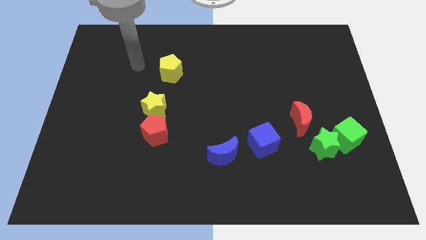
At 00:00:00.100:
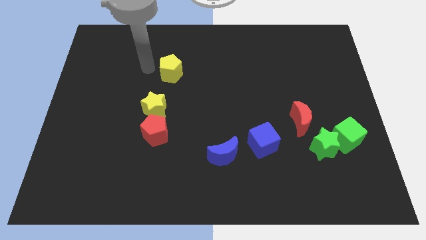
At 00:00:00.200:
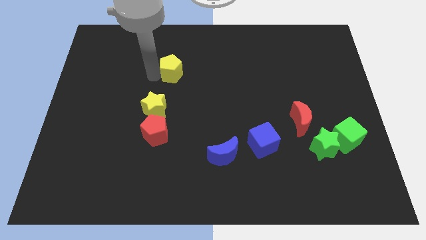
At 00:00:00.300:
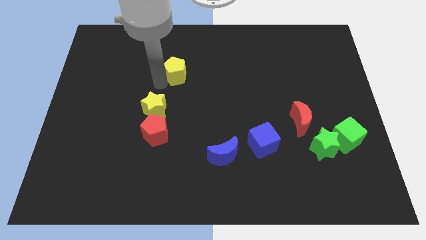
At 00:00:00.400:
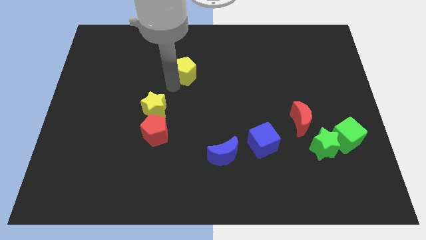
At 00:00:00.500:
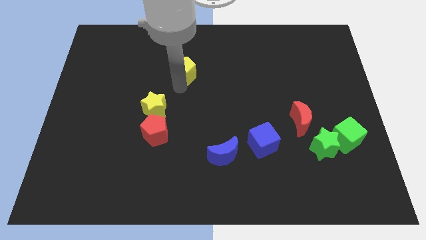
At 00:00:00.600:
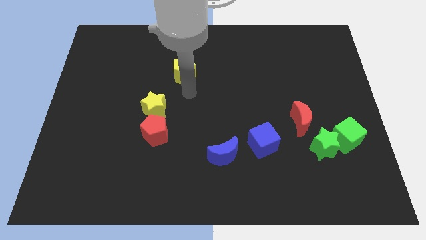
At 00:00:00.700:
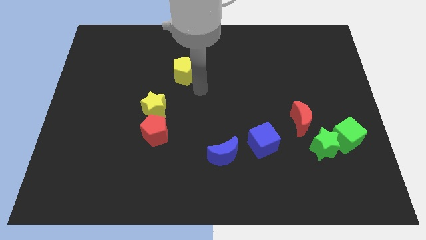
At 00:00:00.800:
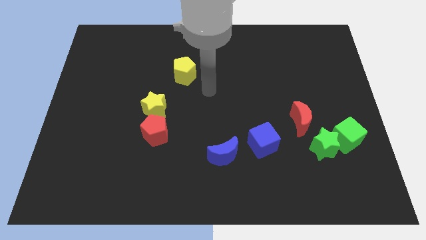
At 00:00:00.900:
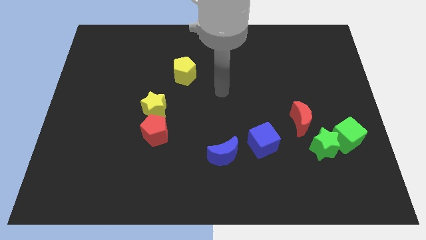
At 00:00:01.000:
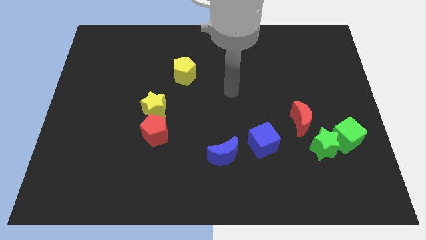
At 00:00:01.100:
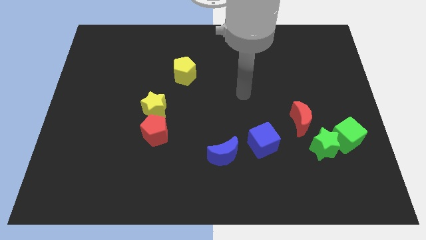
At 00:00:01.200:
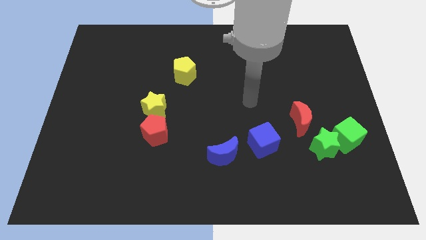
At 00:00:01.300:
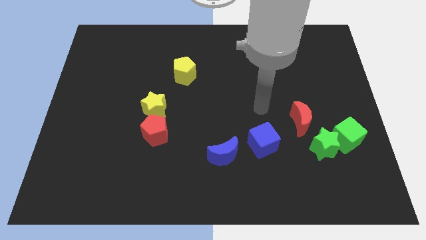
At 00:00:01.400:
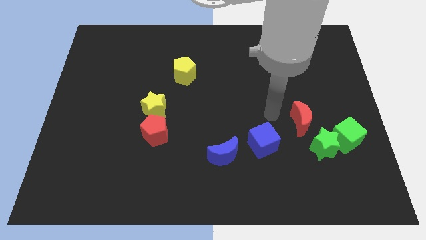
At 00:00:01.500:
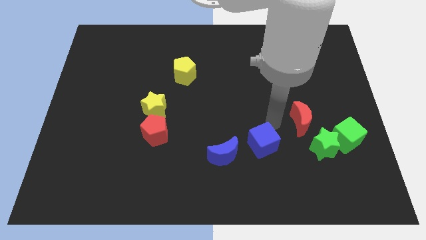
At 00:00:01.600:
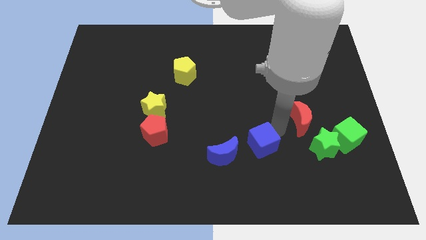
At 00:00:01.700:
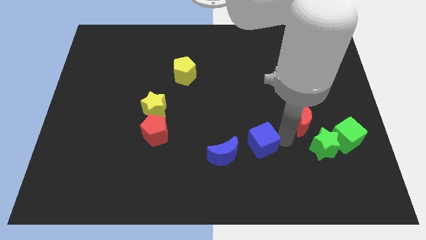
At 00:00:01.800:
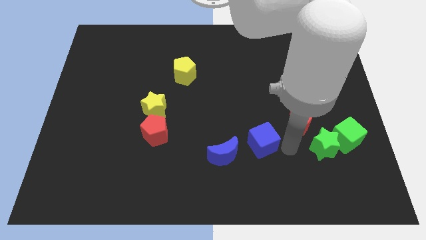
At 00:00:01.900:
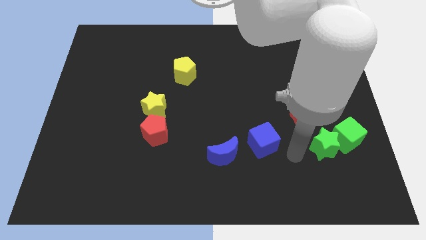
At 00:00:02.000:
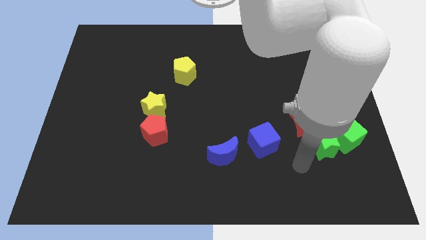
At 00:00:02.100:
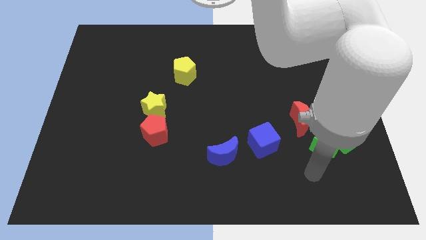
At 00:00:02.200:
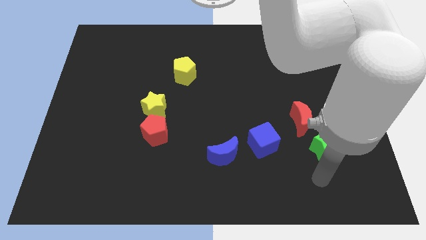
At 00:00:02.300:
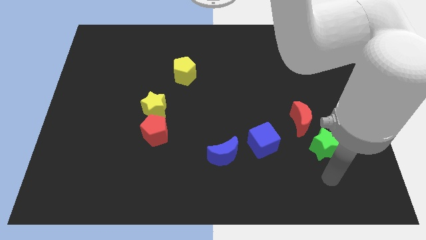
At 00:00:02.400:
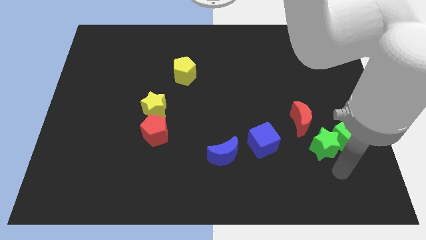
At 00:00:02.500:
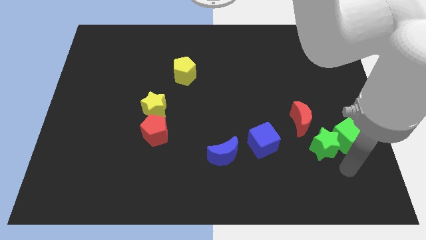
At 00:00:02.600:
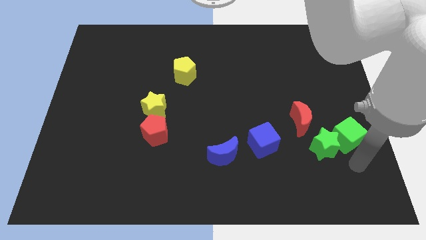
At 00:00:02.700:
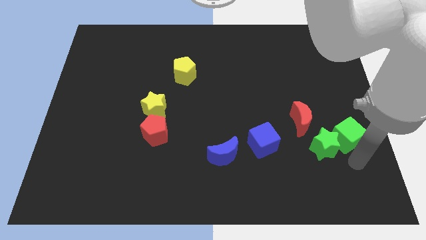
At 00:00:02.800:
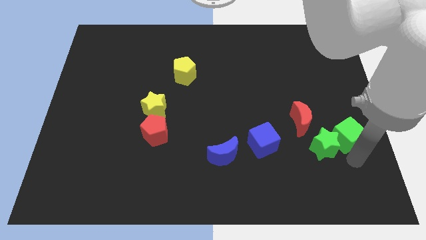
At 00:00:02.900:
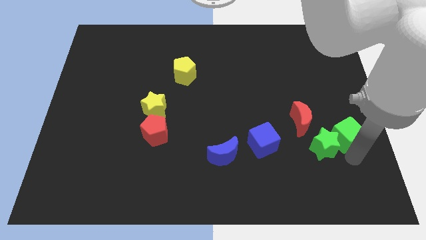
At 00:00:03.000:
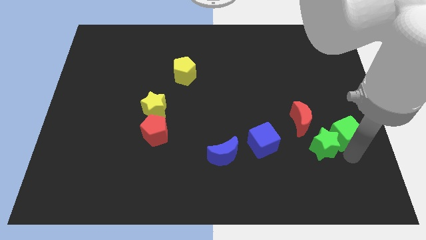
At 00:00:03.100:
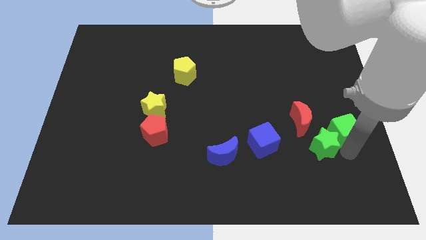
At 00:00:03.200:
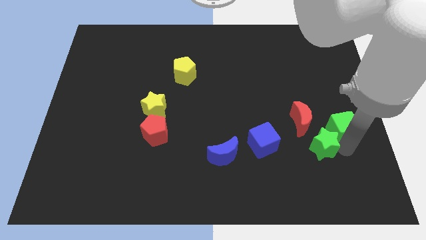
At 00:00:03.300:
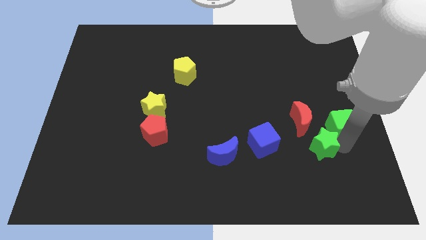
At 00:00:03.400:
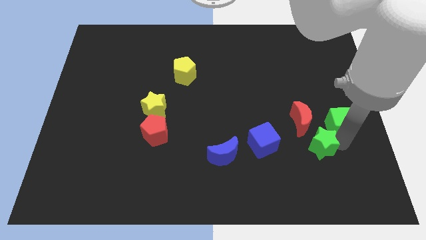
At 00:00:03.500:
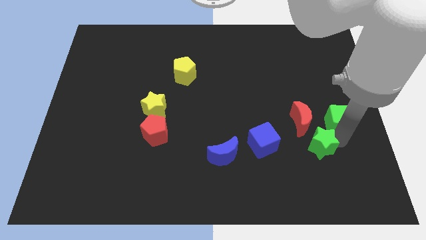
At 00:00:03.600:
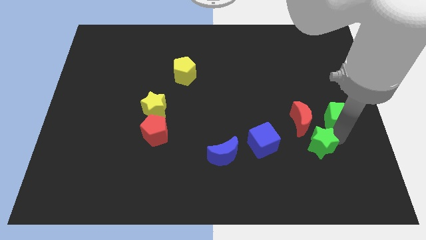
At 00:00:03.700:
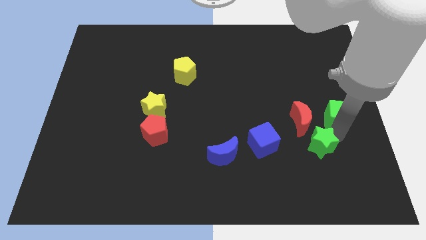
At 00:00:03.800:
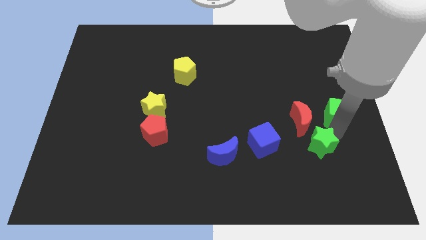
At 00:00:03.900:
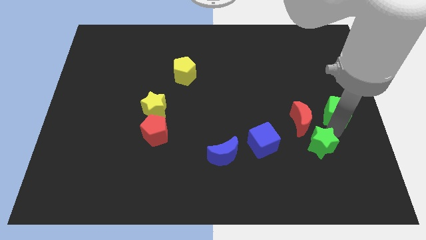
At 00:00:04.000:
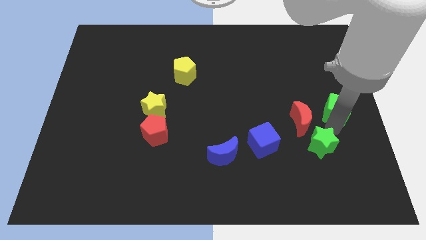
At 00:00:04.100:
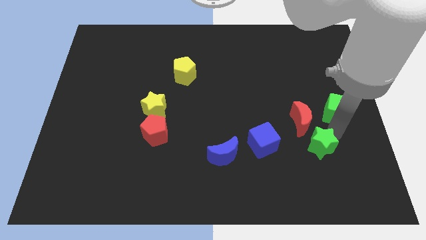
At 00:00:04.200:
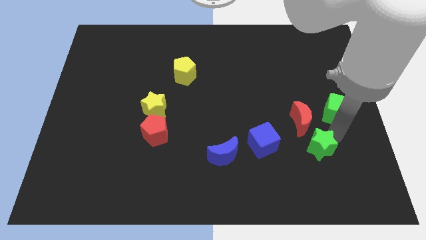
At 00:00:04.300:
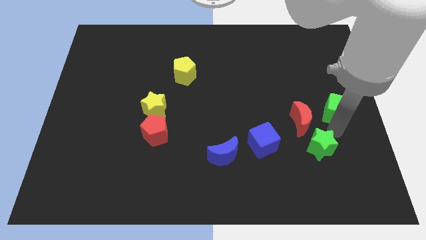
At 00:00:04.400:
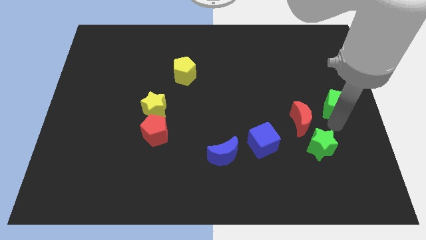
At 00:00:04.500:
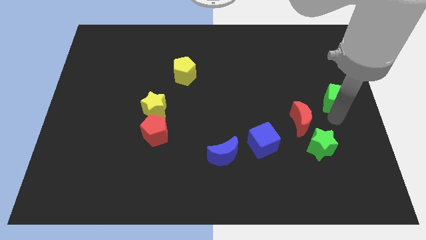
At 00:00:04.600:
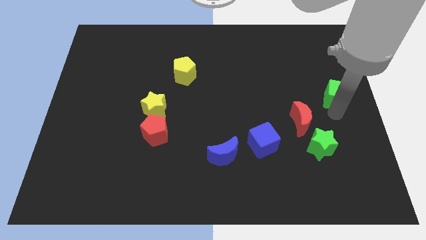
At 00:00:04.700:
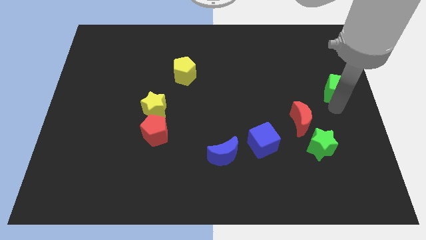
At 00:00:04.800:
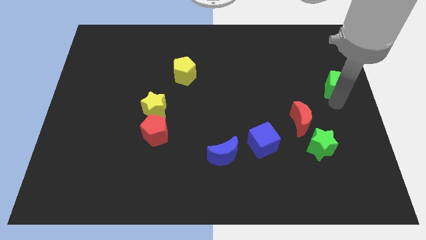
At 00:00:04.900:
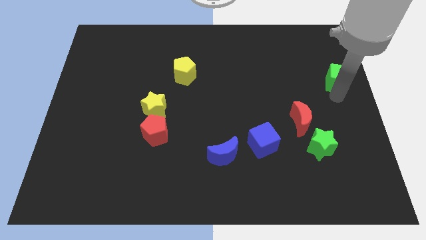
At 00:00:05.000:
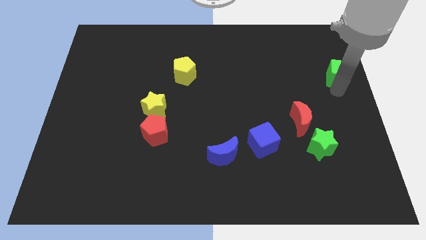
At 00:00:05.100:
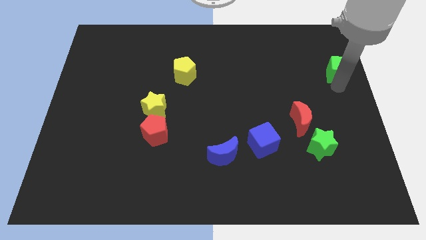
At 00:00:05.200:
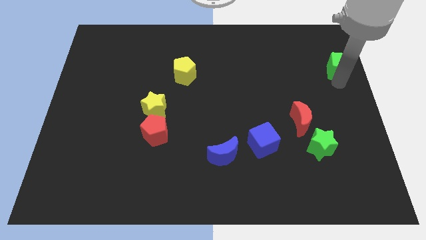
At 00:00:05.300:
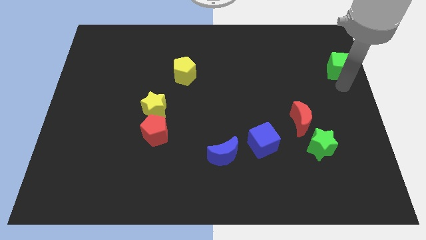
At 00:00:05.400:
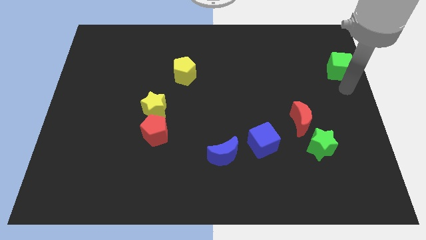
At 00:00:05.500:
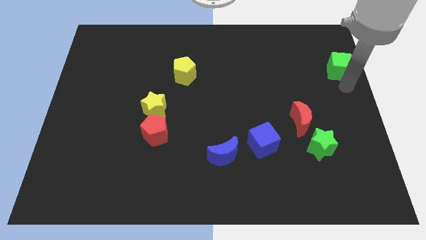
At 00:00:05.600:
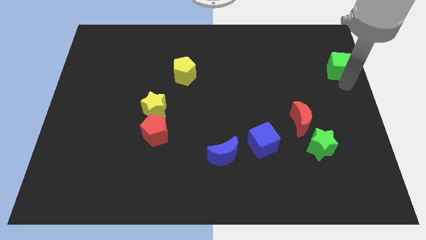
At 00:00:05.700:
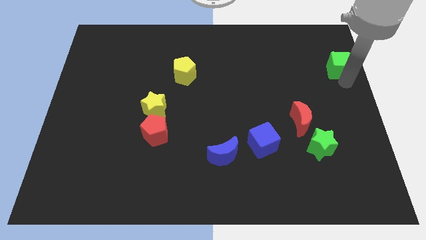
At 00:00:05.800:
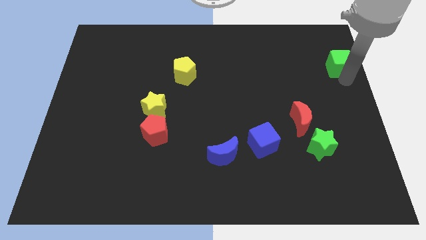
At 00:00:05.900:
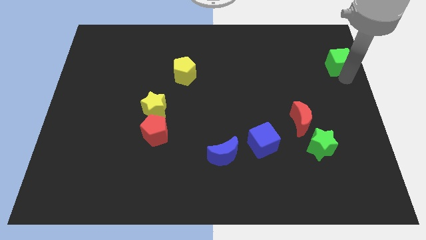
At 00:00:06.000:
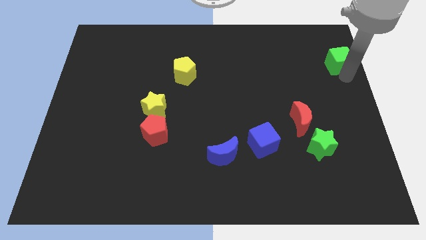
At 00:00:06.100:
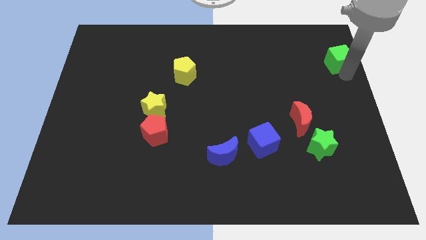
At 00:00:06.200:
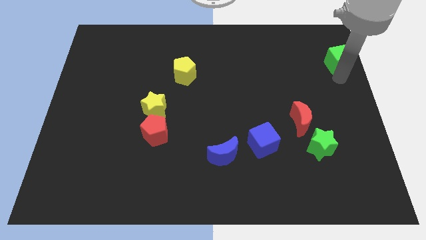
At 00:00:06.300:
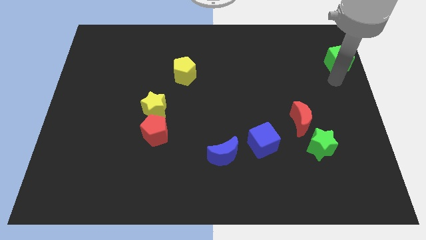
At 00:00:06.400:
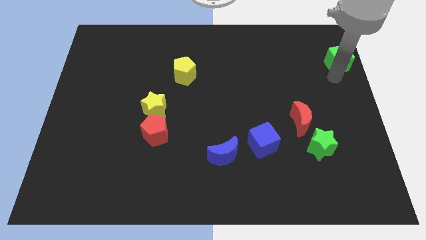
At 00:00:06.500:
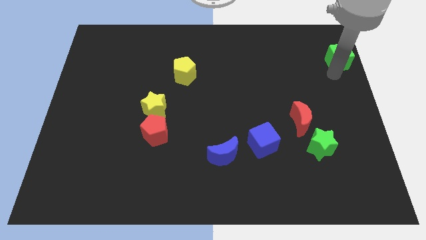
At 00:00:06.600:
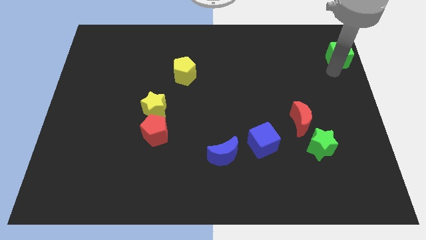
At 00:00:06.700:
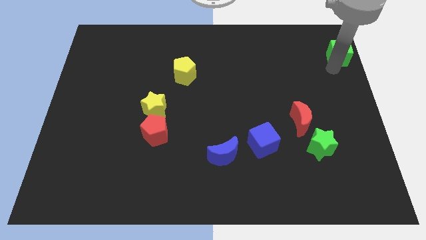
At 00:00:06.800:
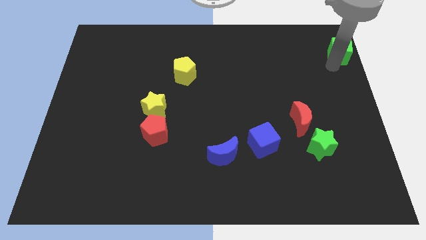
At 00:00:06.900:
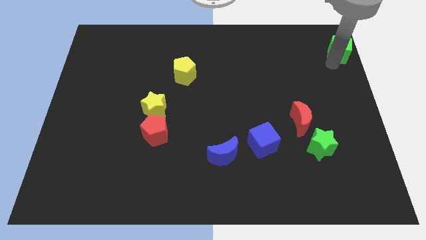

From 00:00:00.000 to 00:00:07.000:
move the green cube to the top right
